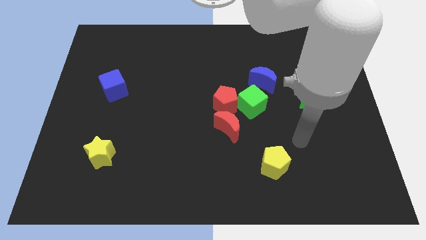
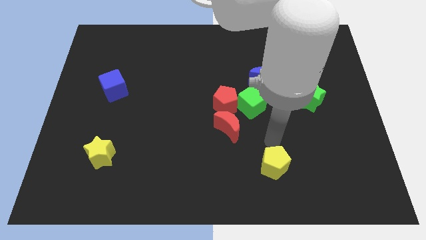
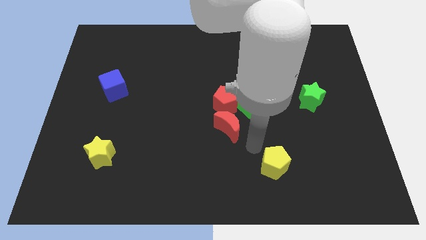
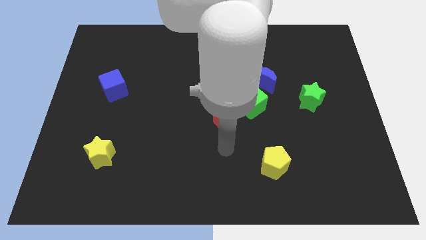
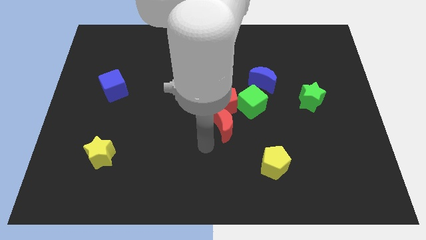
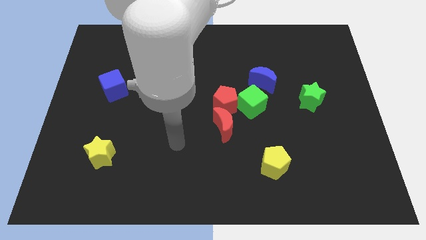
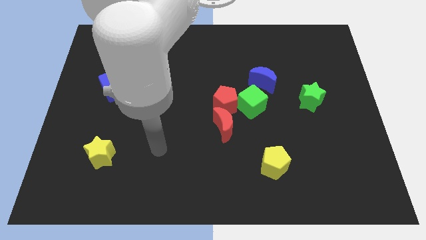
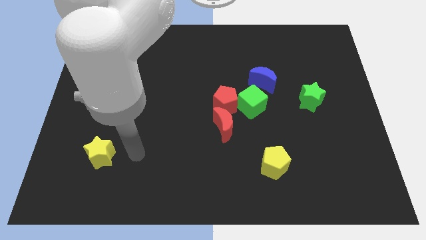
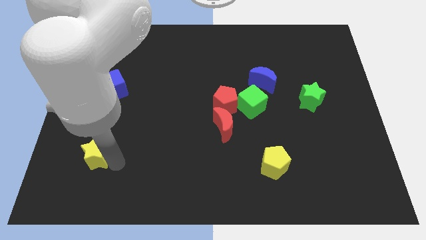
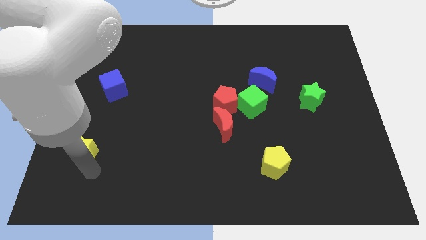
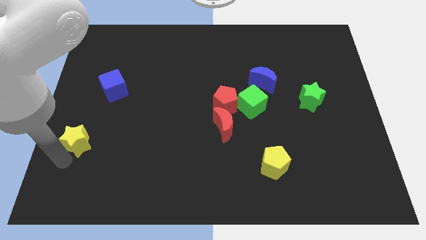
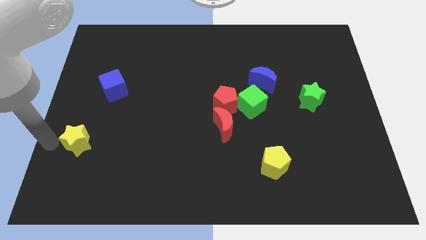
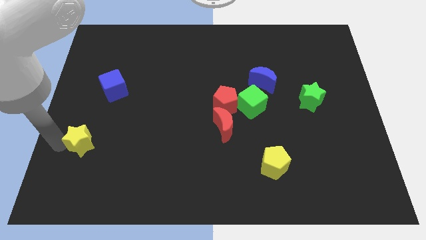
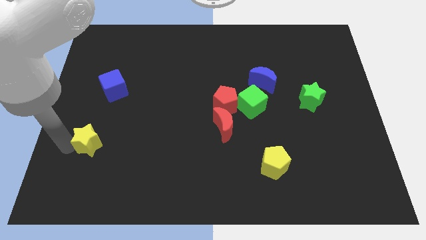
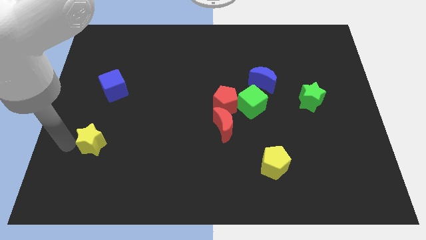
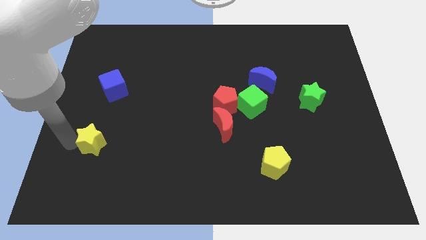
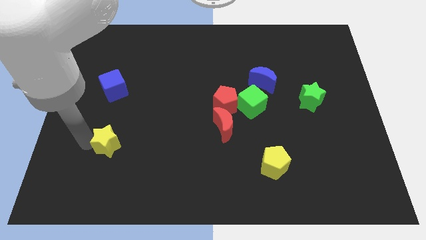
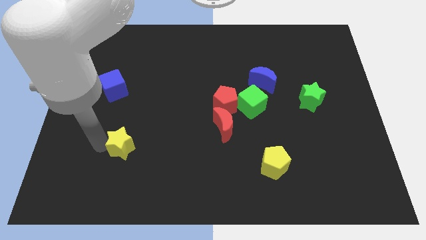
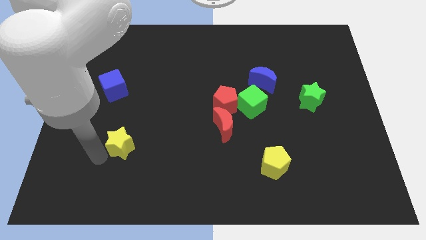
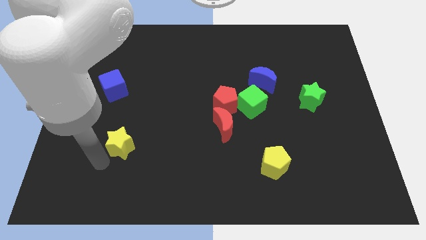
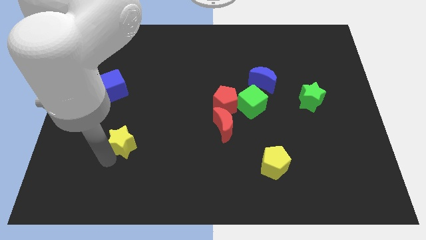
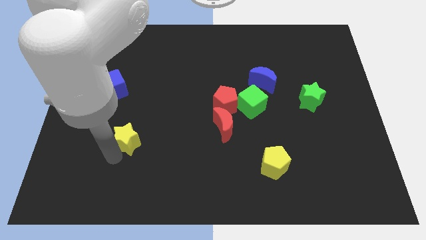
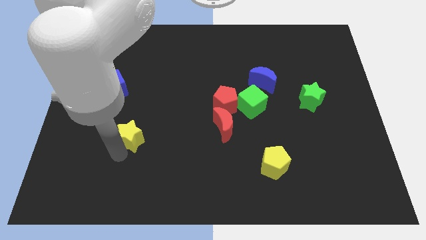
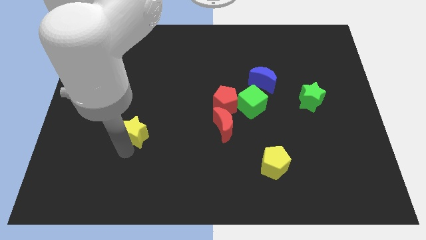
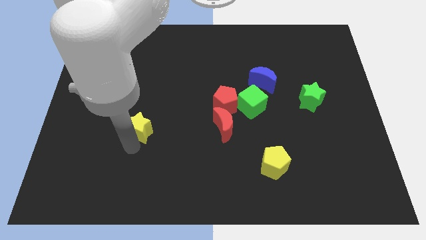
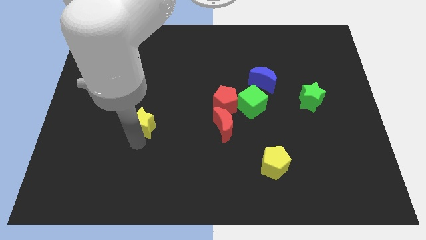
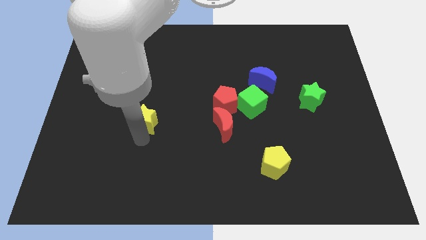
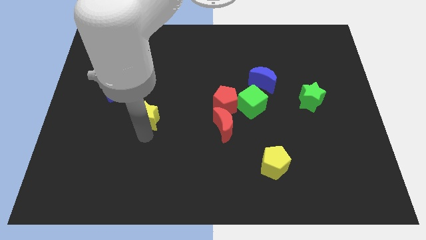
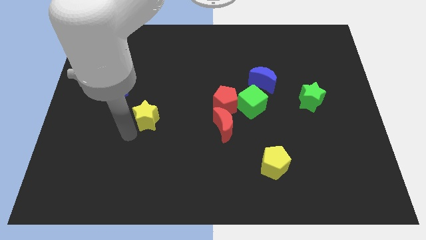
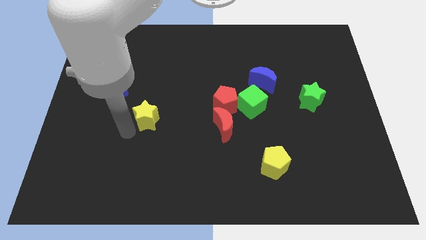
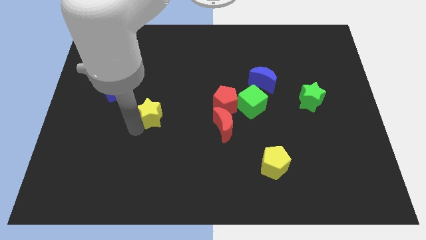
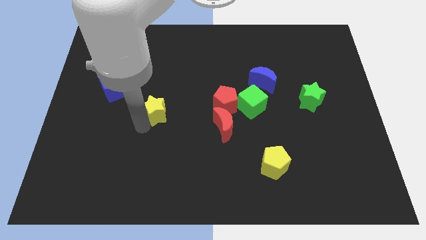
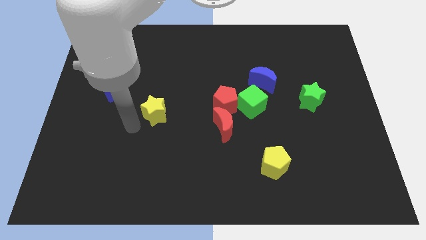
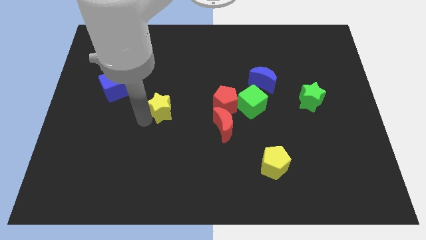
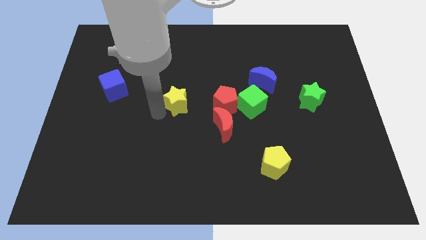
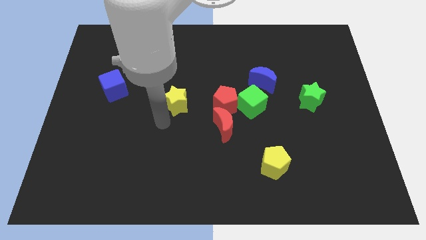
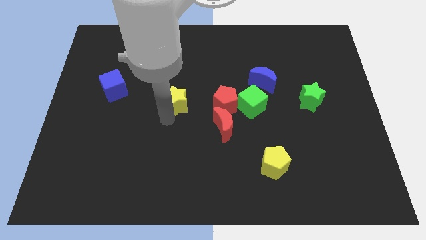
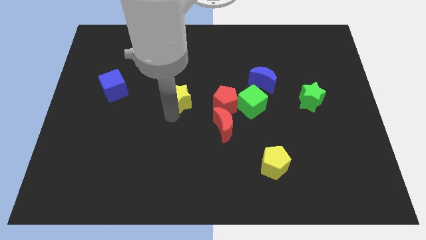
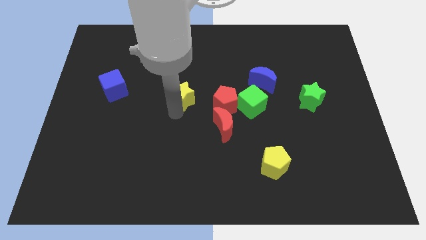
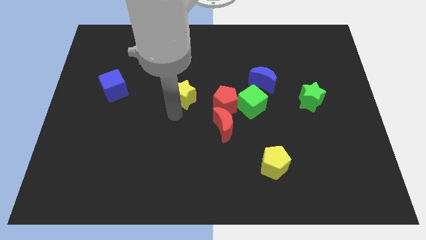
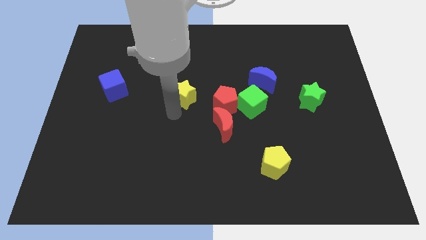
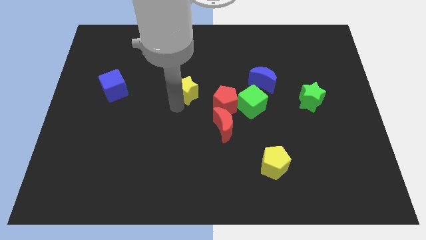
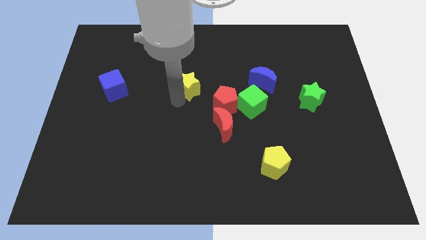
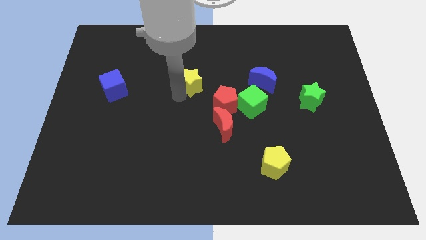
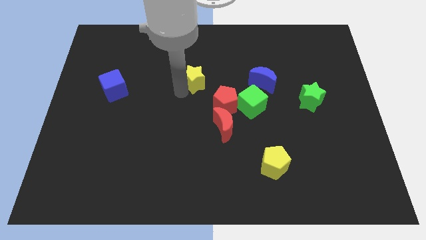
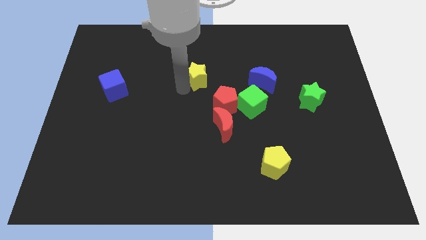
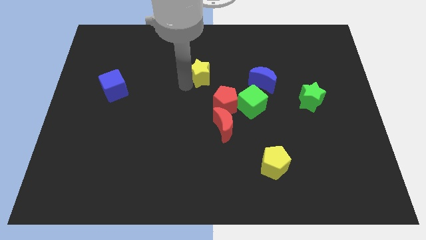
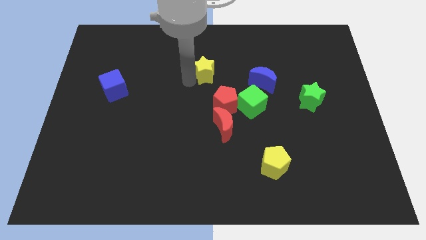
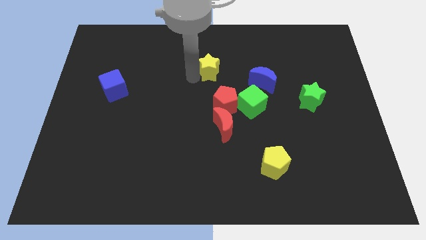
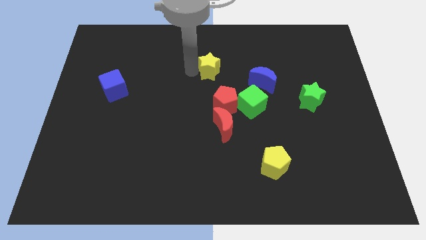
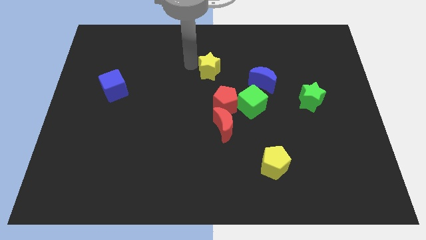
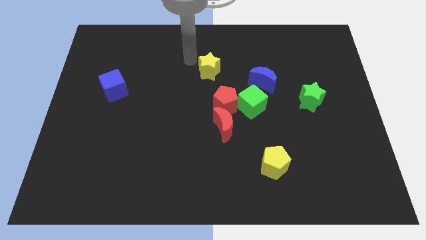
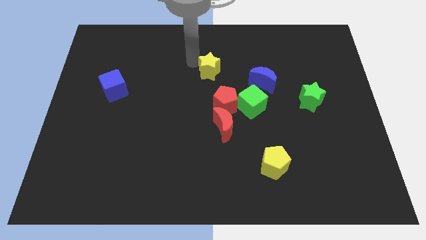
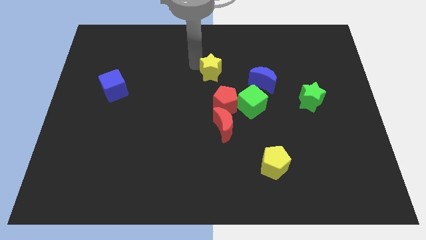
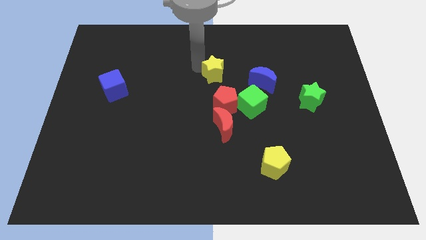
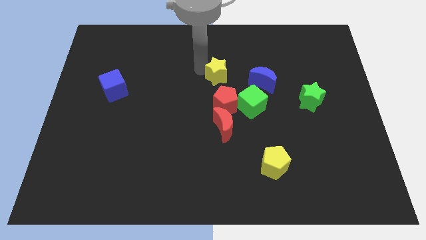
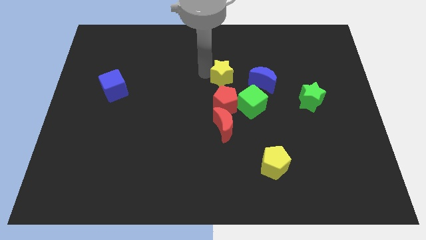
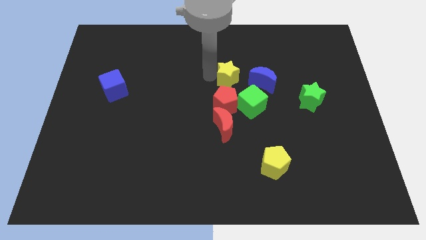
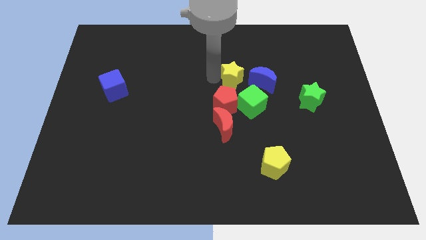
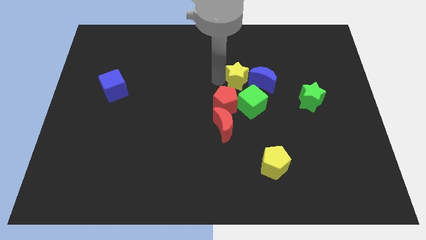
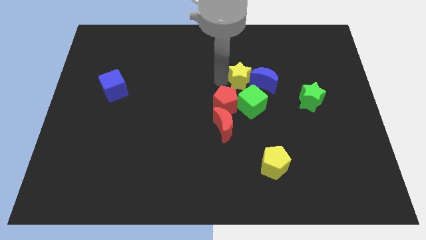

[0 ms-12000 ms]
push the yellow star close to the blue moon

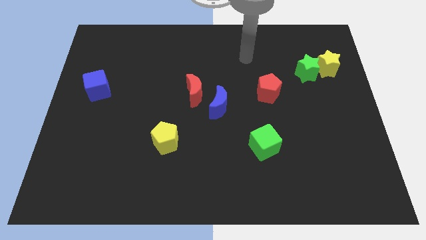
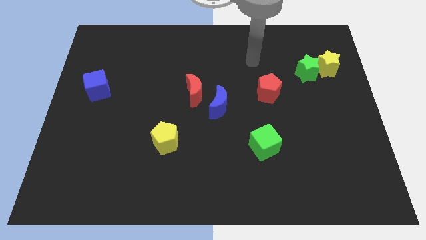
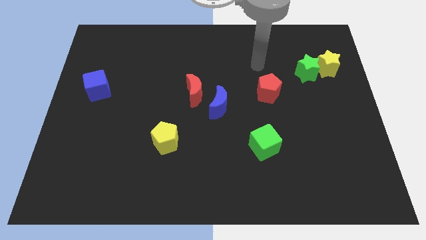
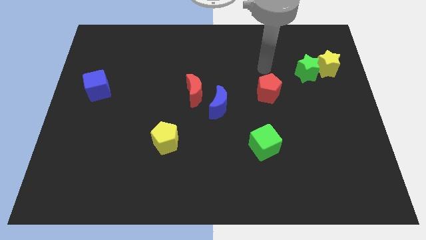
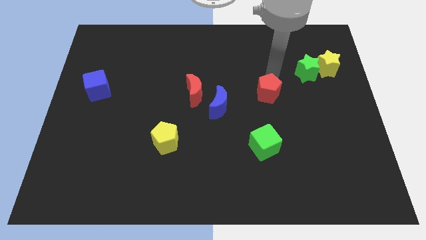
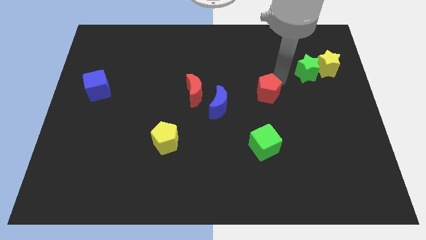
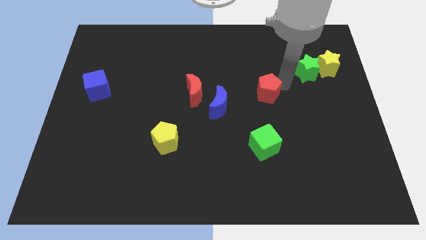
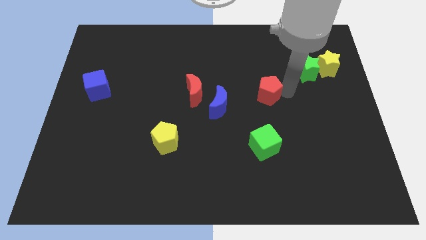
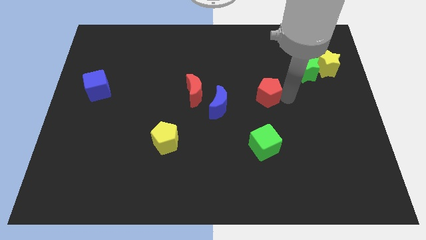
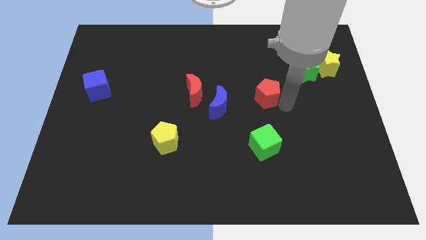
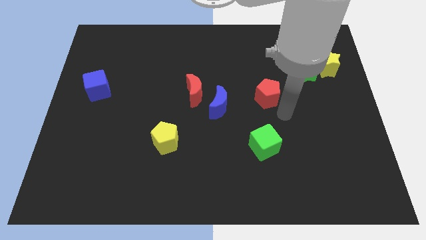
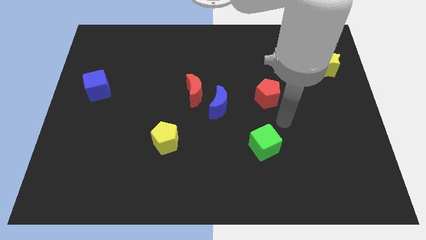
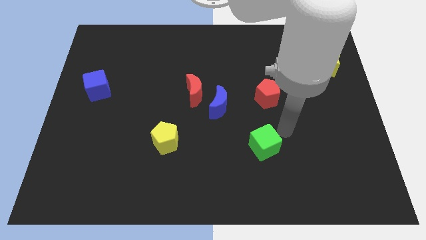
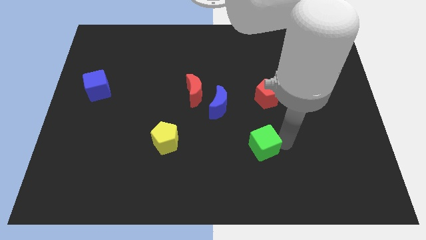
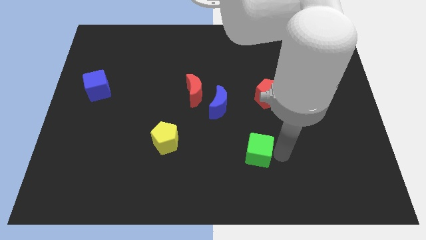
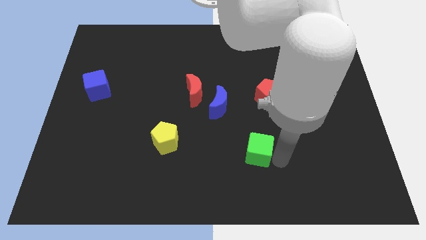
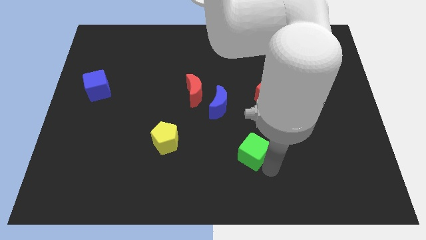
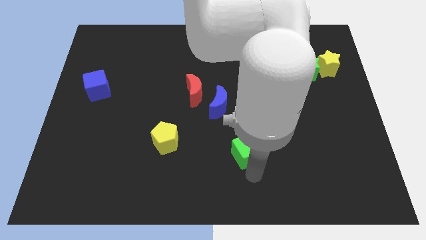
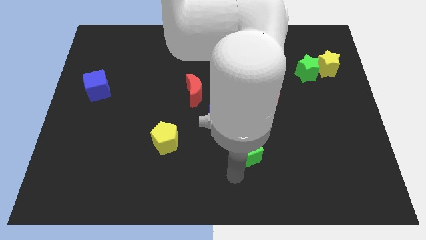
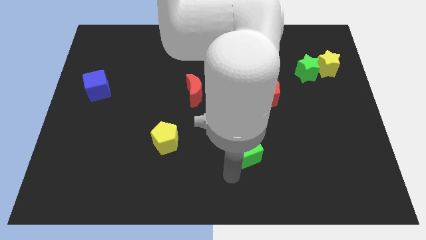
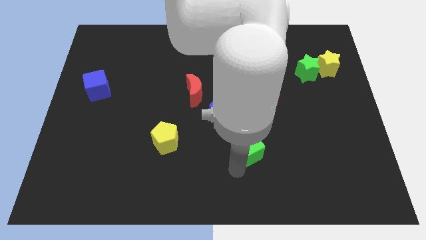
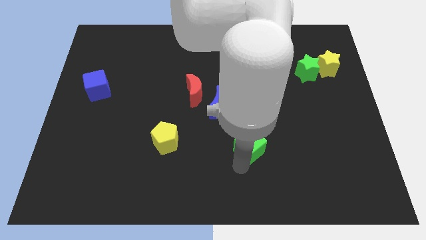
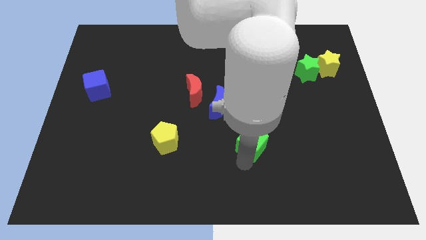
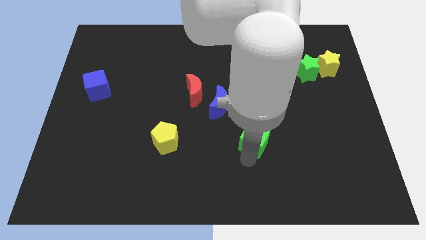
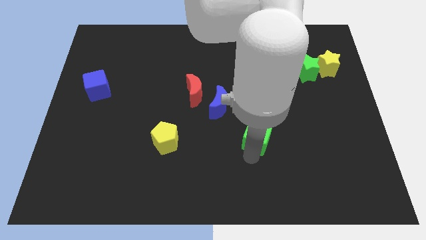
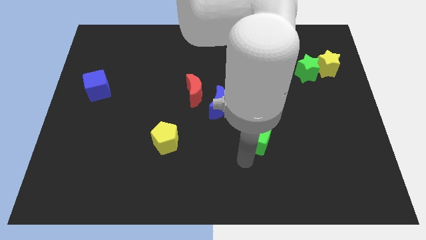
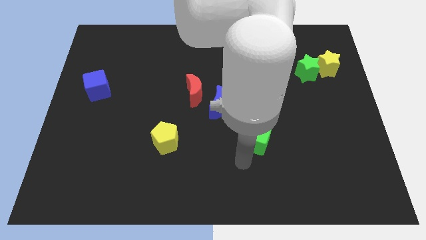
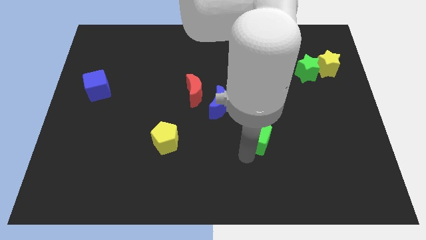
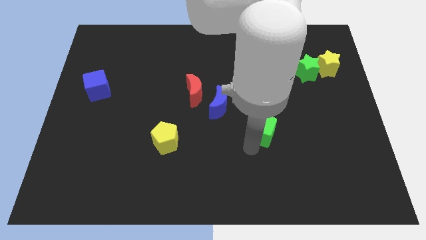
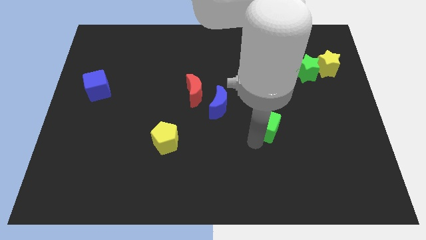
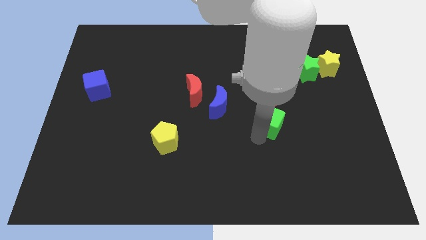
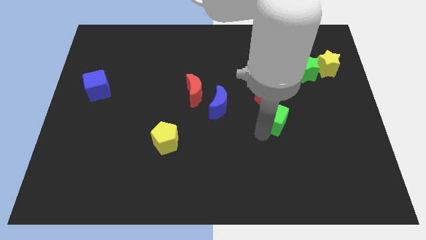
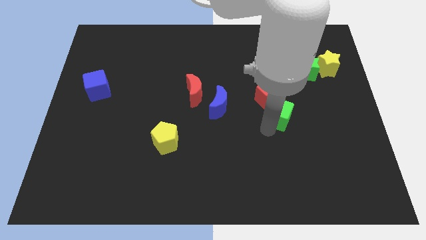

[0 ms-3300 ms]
slide the green cube next to the red pentagon
